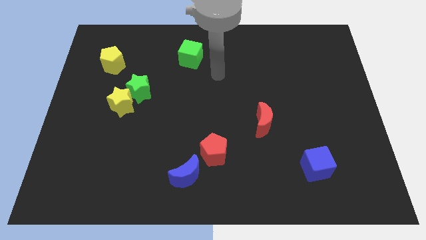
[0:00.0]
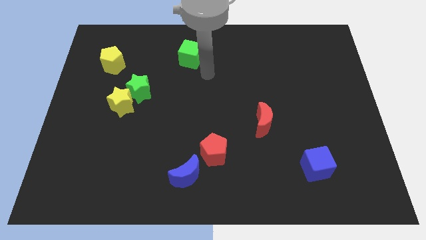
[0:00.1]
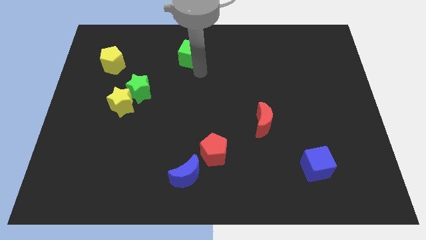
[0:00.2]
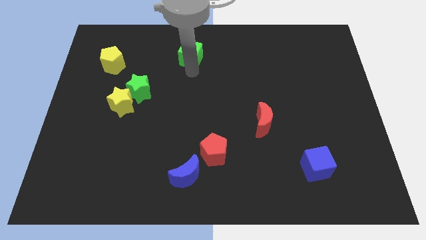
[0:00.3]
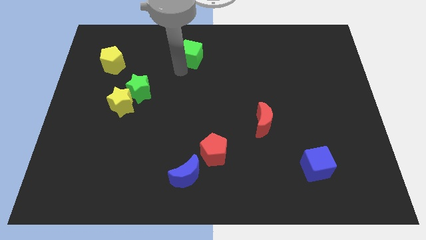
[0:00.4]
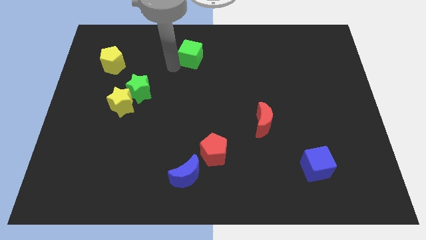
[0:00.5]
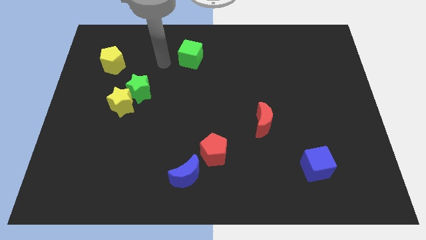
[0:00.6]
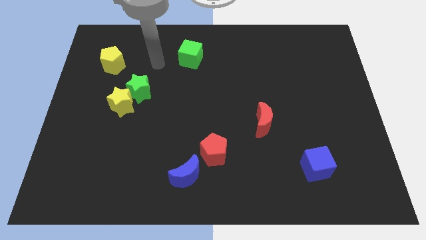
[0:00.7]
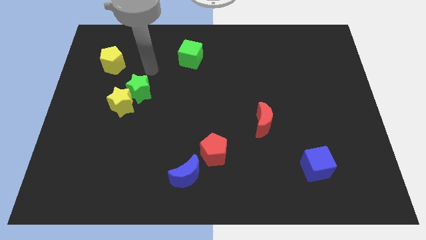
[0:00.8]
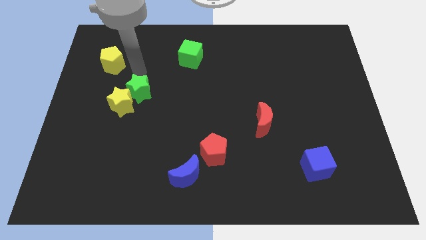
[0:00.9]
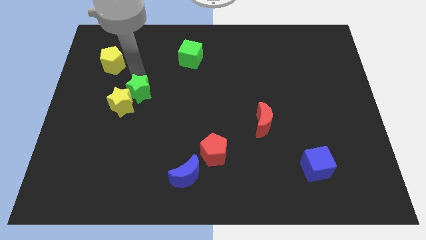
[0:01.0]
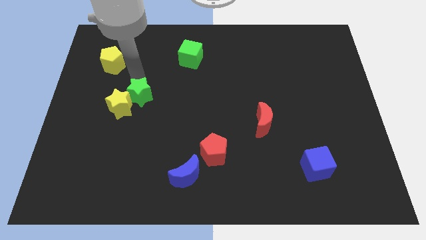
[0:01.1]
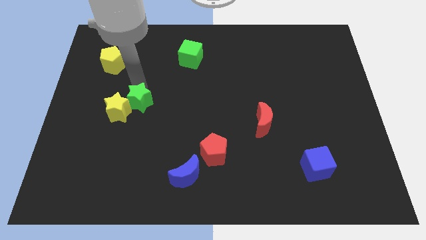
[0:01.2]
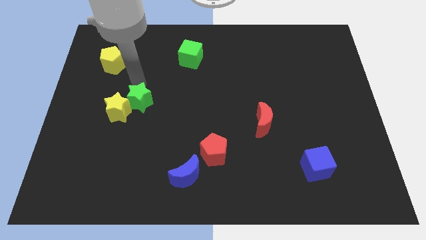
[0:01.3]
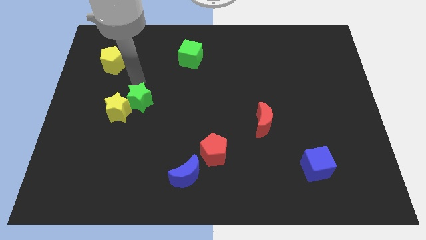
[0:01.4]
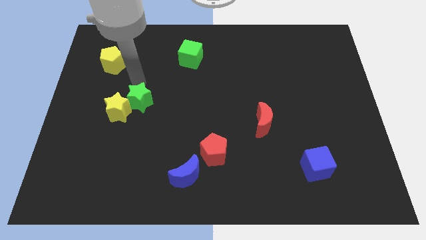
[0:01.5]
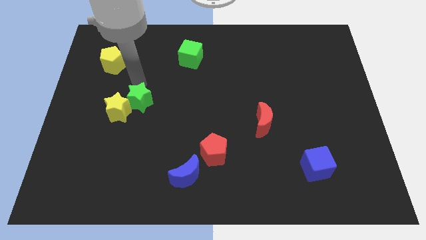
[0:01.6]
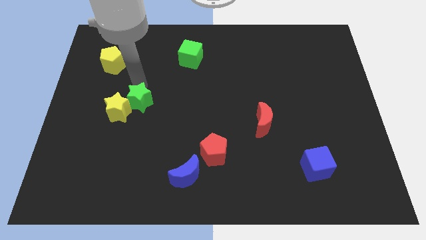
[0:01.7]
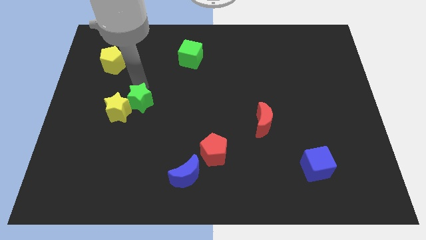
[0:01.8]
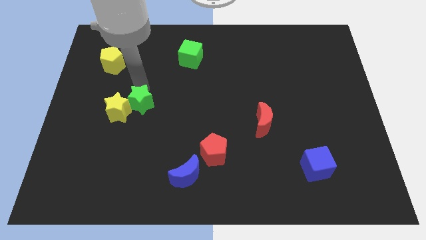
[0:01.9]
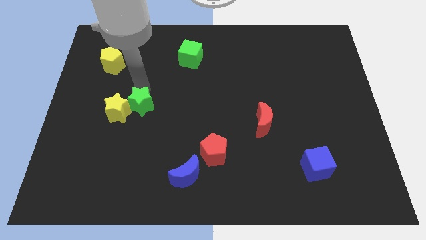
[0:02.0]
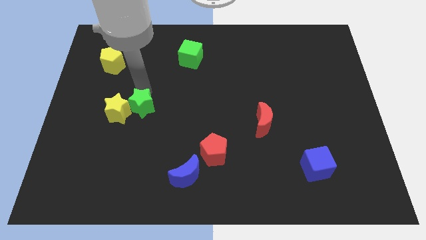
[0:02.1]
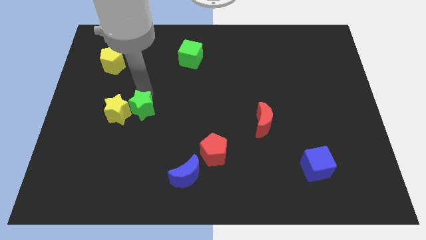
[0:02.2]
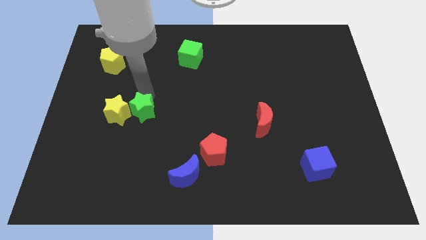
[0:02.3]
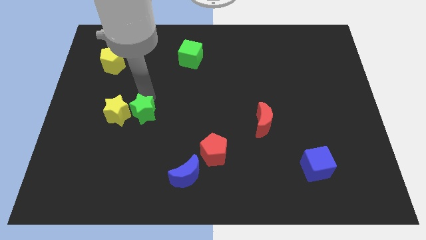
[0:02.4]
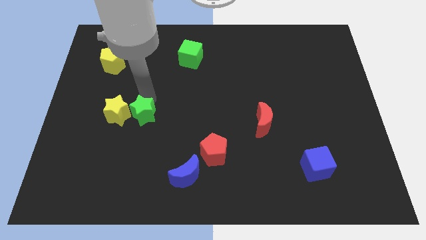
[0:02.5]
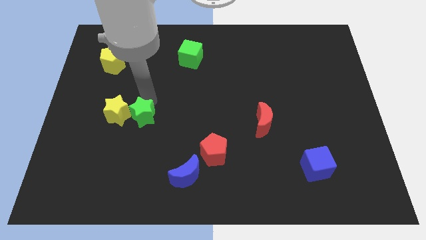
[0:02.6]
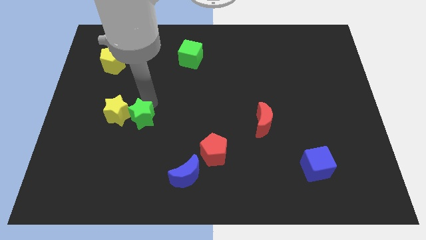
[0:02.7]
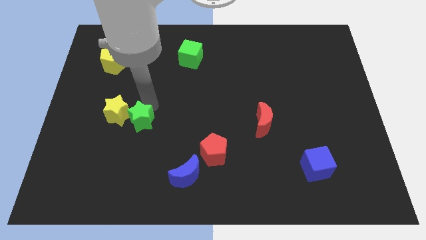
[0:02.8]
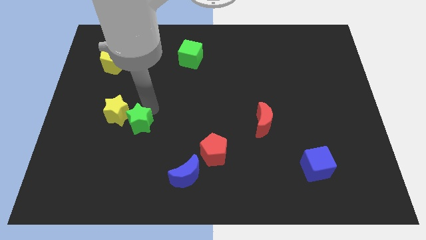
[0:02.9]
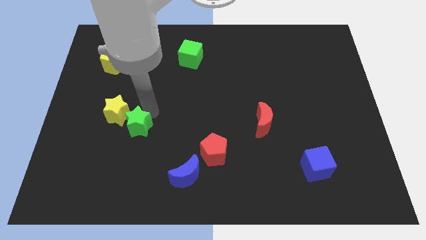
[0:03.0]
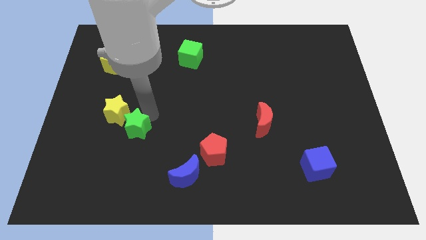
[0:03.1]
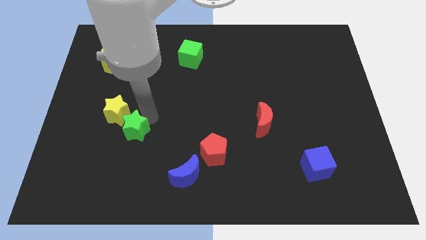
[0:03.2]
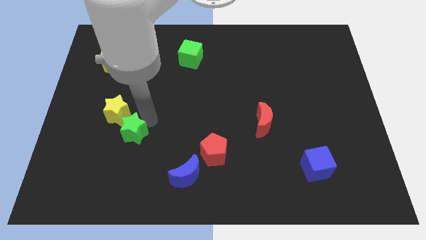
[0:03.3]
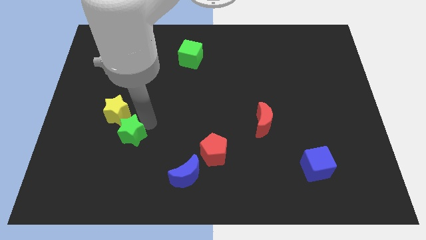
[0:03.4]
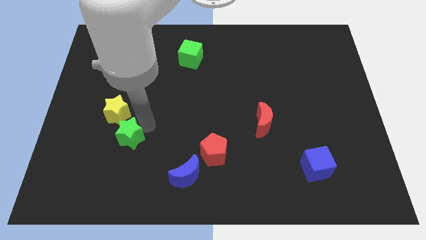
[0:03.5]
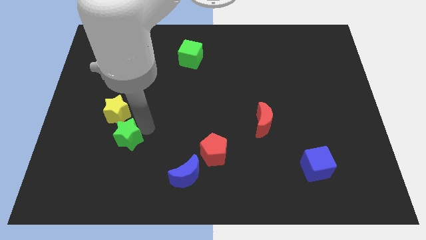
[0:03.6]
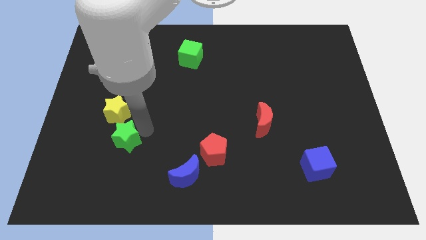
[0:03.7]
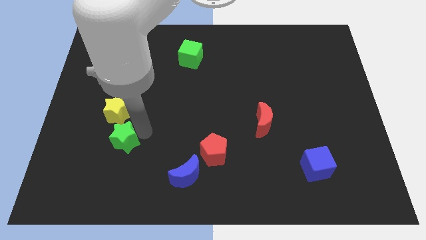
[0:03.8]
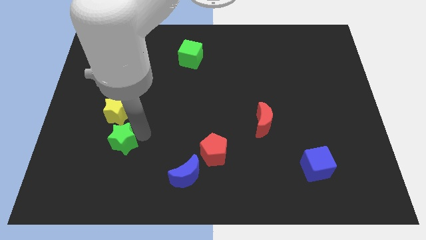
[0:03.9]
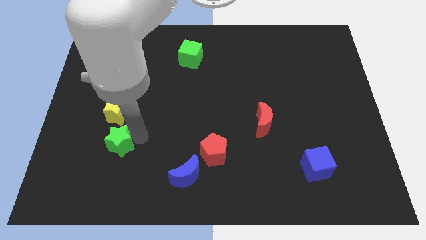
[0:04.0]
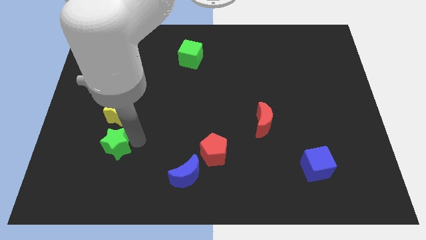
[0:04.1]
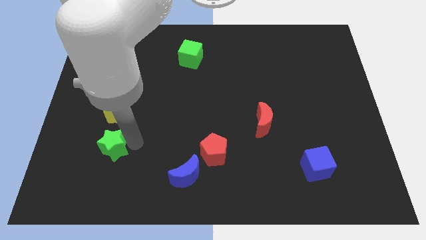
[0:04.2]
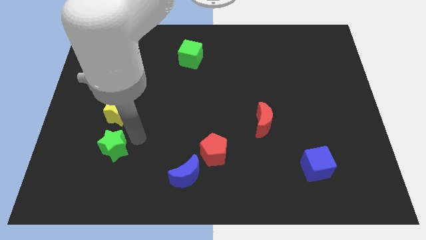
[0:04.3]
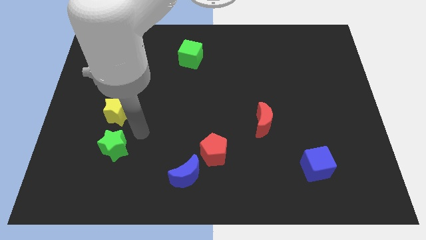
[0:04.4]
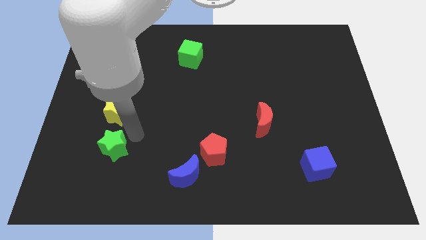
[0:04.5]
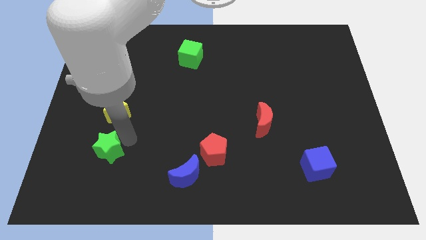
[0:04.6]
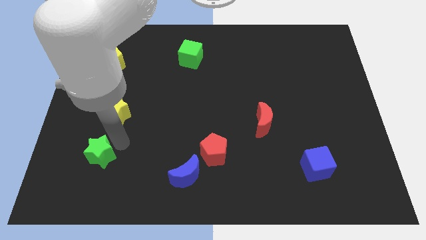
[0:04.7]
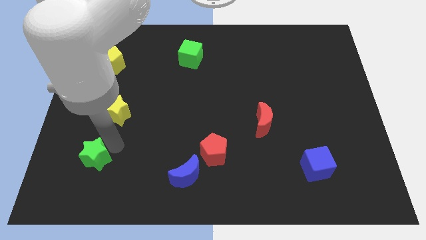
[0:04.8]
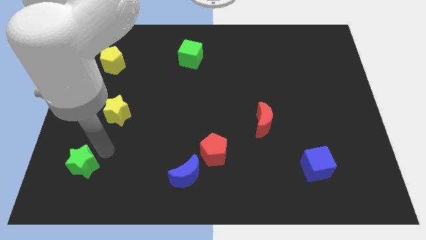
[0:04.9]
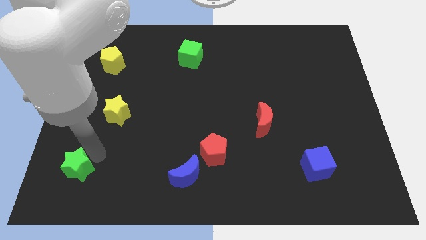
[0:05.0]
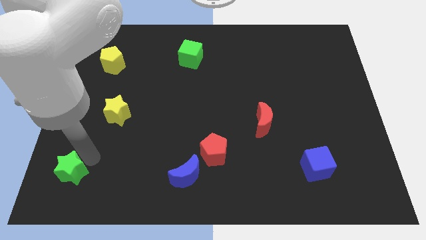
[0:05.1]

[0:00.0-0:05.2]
slide the green star to the lower left corner

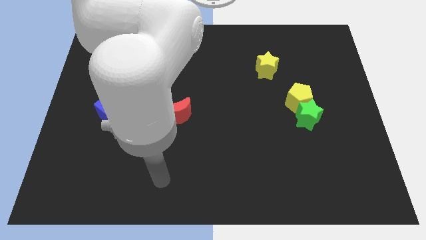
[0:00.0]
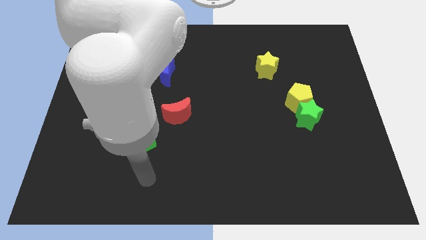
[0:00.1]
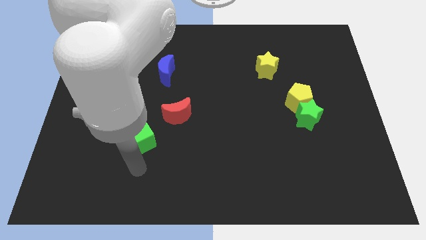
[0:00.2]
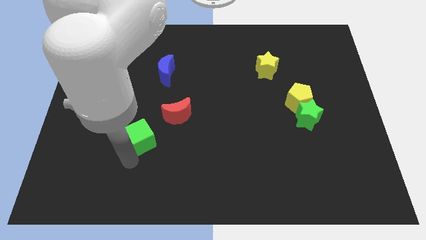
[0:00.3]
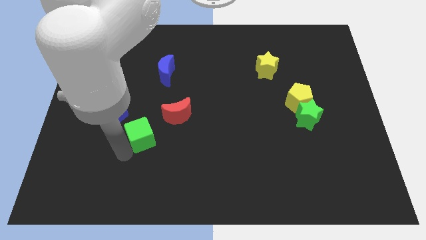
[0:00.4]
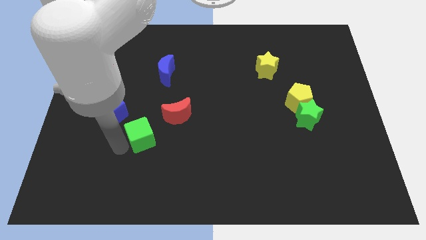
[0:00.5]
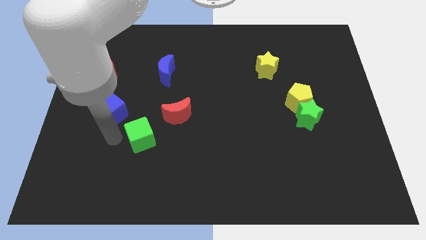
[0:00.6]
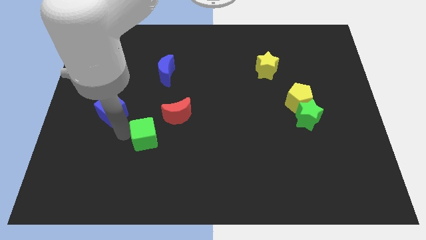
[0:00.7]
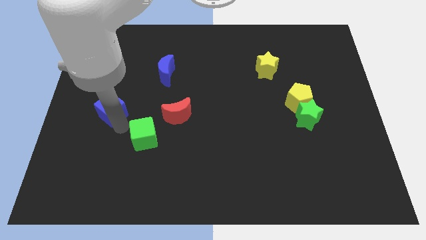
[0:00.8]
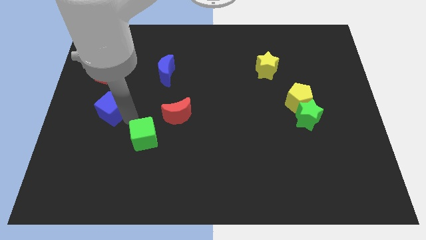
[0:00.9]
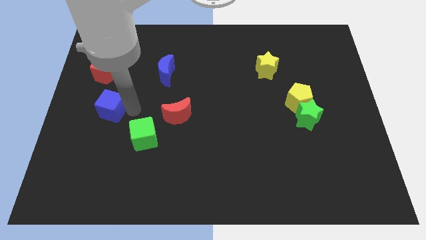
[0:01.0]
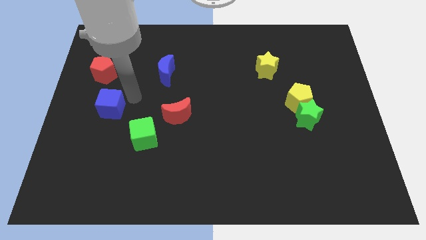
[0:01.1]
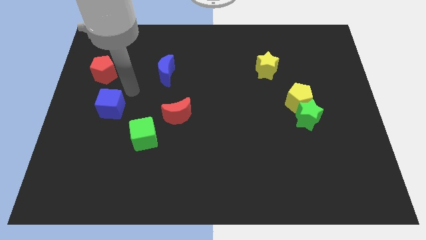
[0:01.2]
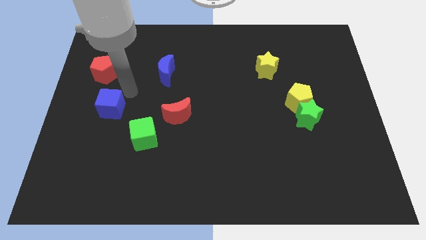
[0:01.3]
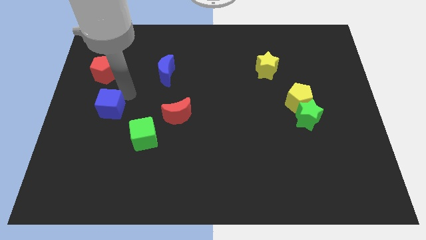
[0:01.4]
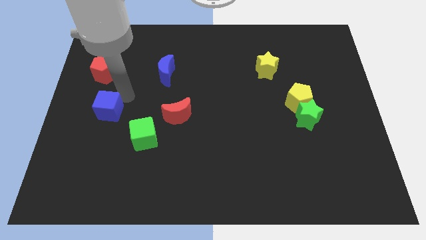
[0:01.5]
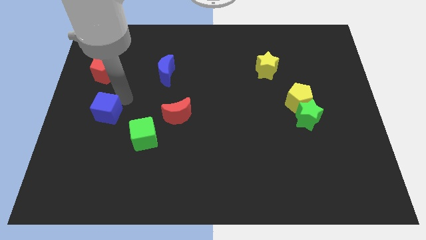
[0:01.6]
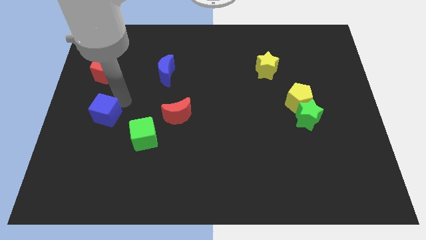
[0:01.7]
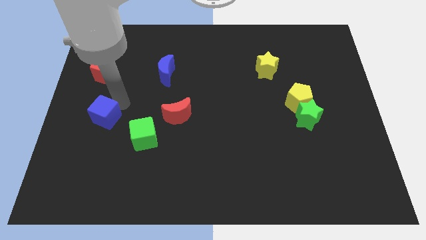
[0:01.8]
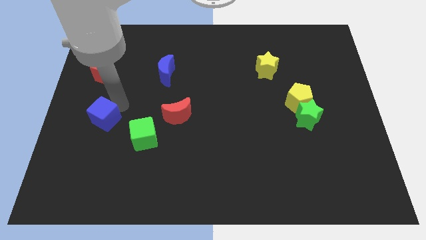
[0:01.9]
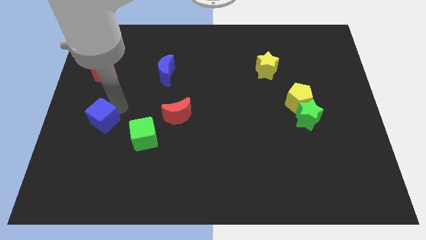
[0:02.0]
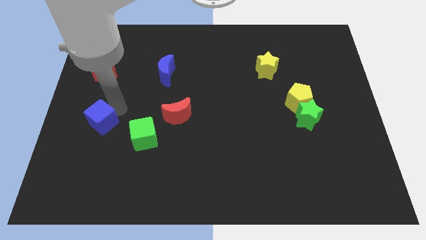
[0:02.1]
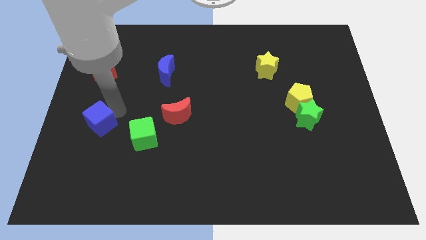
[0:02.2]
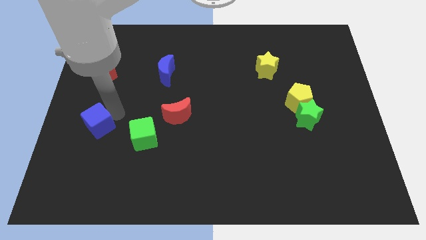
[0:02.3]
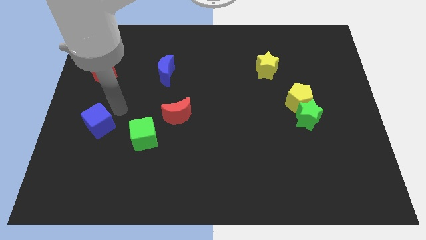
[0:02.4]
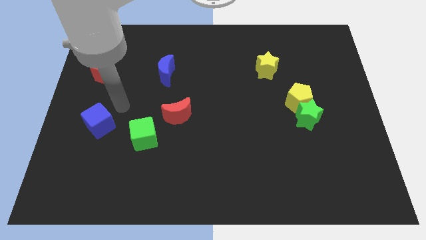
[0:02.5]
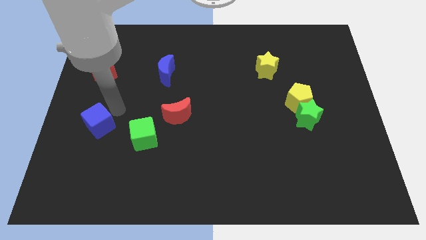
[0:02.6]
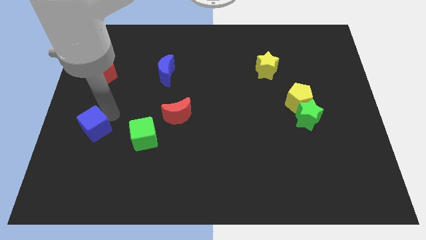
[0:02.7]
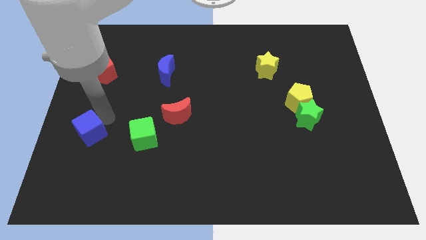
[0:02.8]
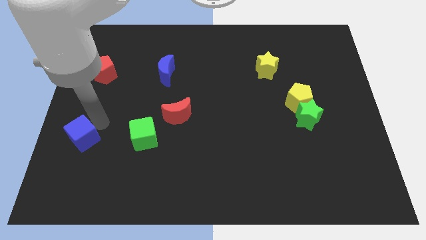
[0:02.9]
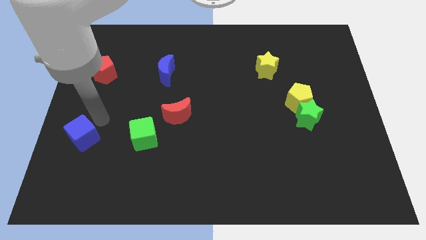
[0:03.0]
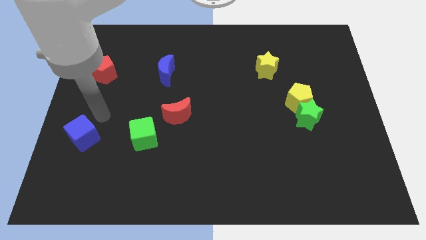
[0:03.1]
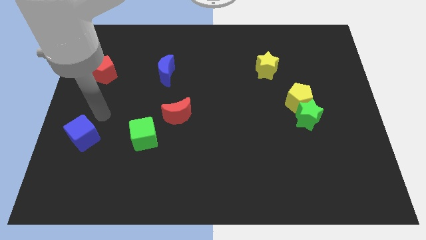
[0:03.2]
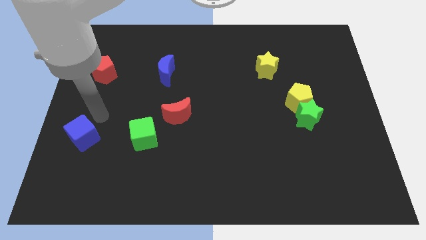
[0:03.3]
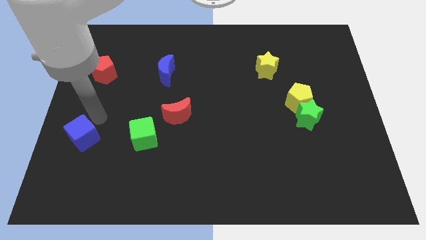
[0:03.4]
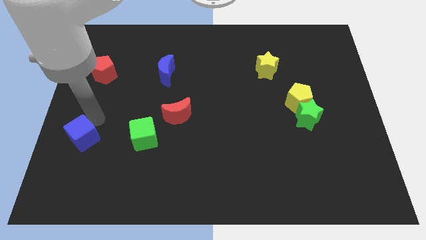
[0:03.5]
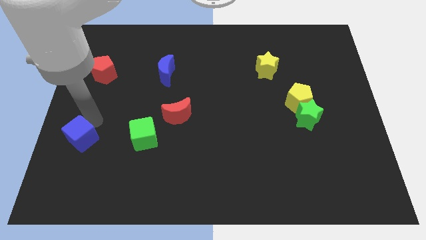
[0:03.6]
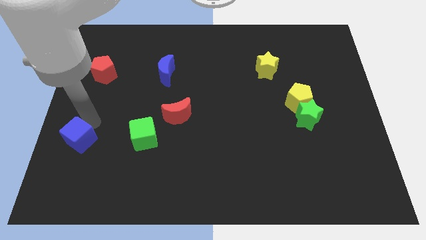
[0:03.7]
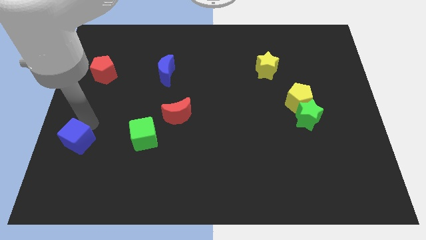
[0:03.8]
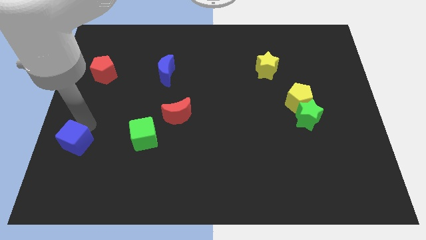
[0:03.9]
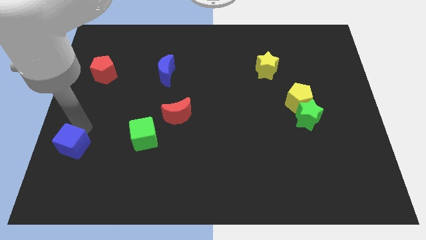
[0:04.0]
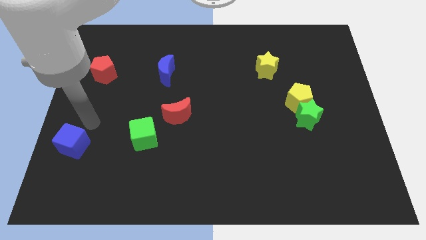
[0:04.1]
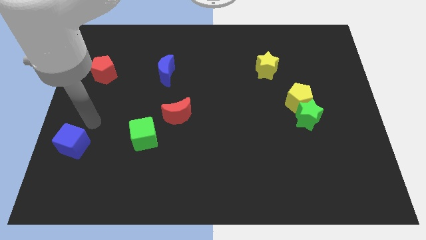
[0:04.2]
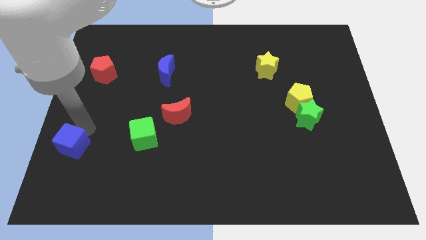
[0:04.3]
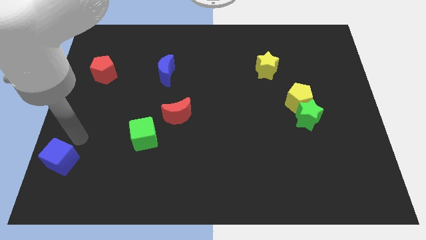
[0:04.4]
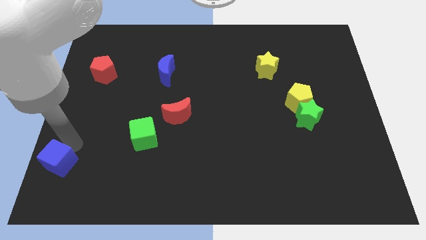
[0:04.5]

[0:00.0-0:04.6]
push the blue cube to the bottom left of the board
